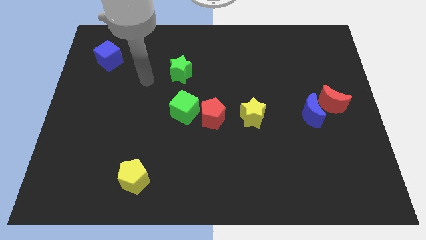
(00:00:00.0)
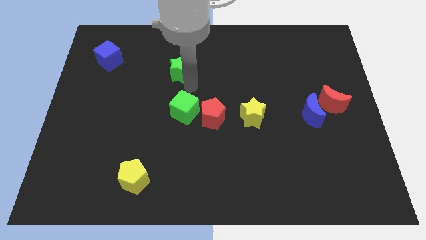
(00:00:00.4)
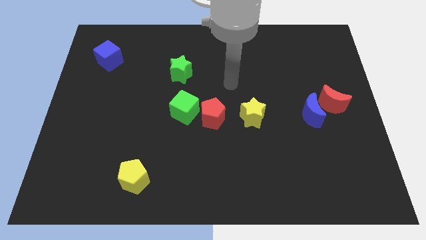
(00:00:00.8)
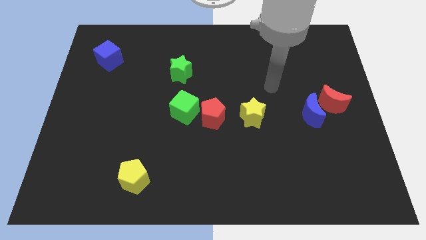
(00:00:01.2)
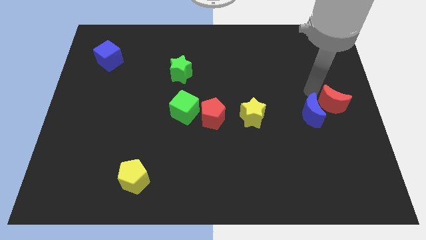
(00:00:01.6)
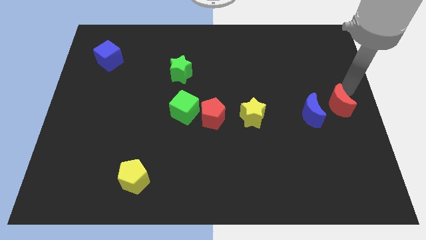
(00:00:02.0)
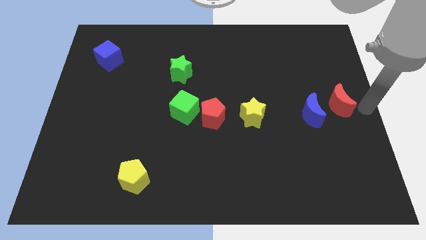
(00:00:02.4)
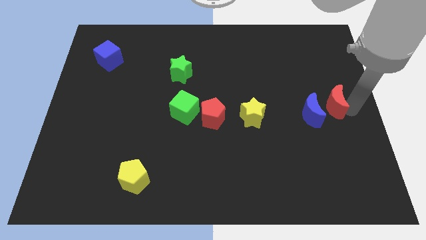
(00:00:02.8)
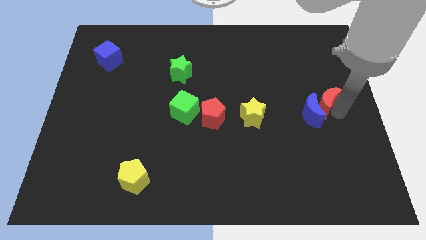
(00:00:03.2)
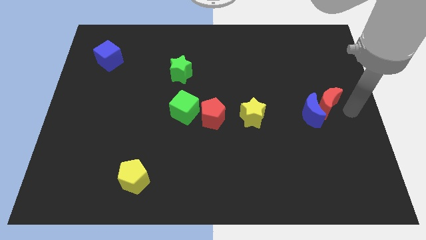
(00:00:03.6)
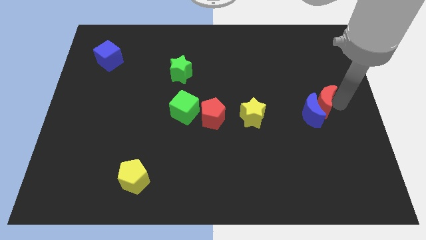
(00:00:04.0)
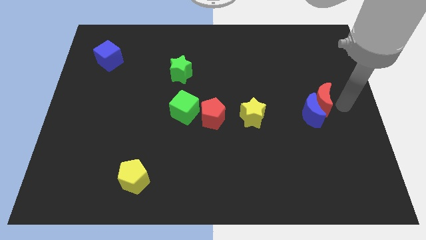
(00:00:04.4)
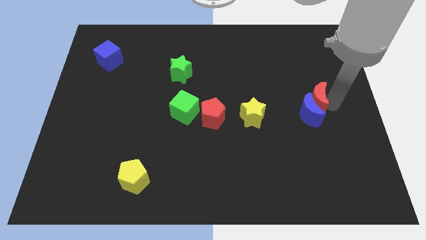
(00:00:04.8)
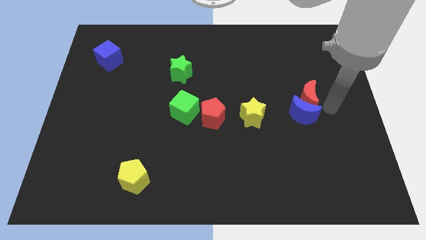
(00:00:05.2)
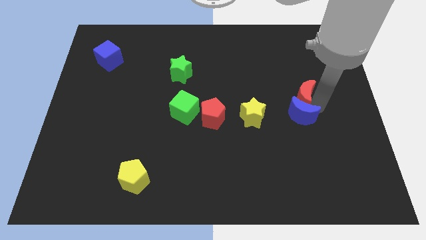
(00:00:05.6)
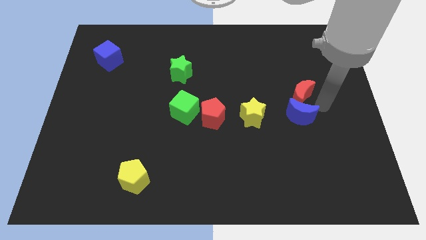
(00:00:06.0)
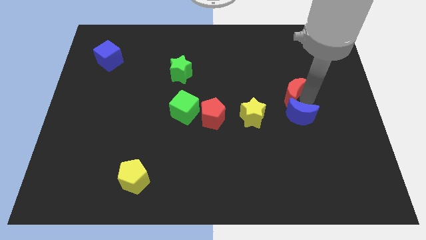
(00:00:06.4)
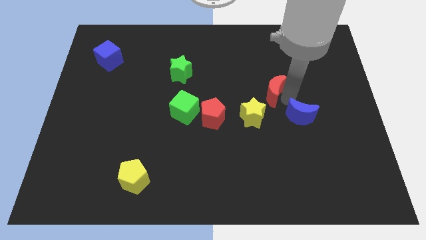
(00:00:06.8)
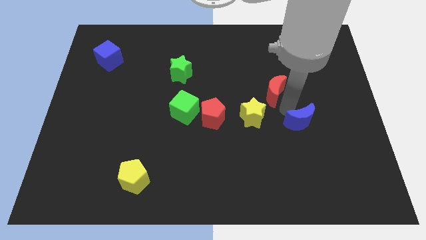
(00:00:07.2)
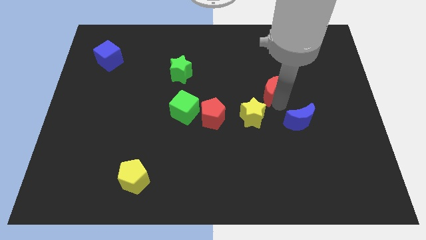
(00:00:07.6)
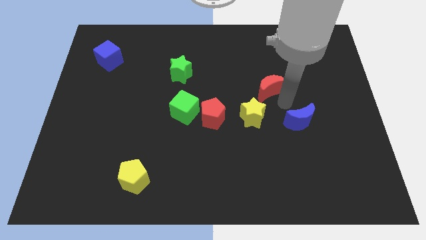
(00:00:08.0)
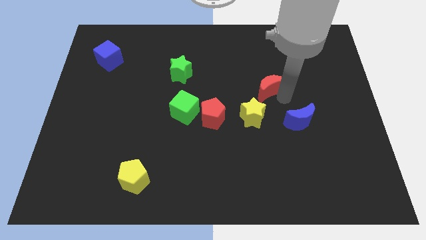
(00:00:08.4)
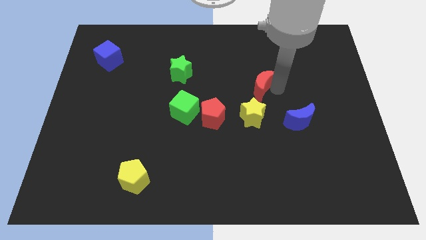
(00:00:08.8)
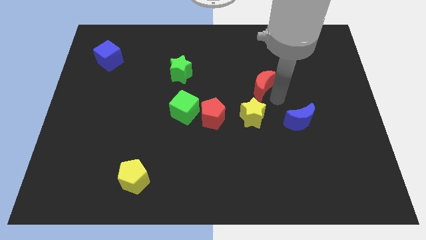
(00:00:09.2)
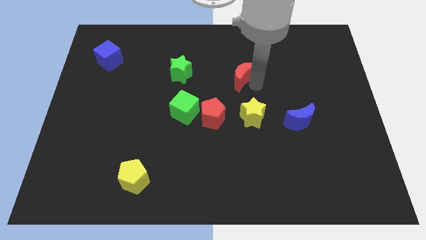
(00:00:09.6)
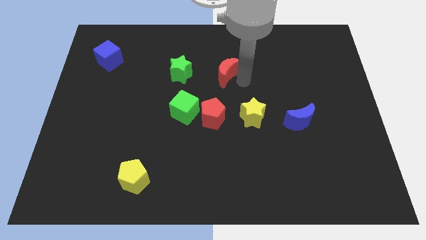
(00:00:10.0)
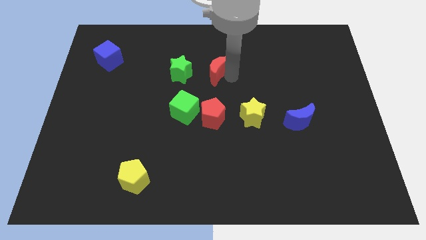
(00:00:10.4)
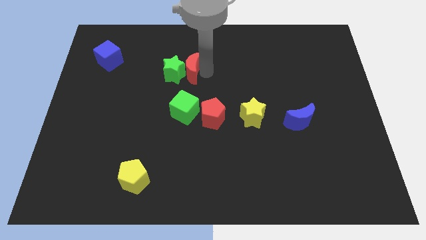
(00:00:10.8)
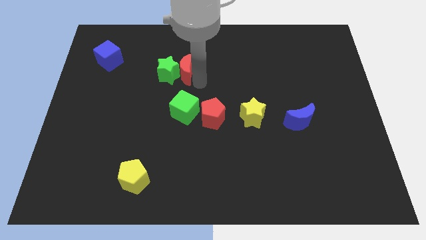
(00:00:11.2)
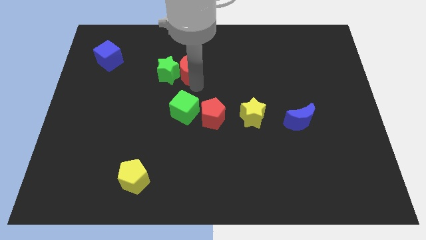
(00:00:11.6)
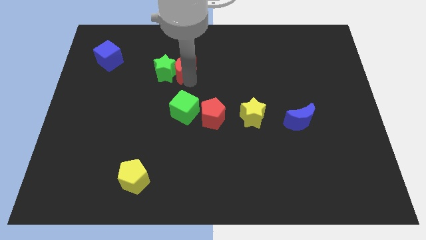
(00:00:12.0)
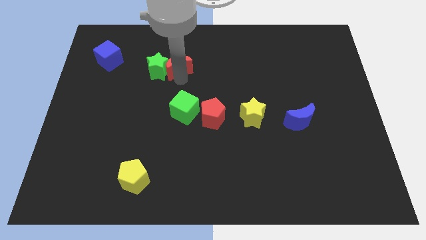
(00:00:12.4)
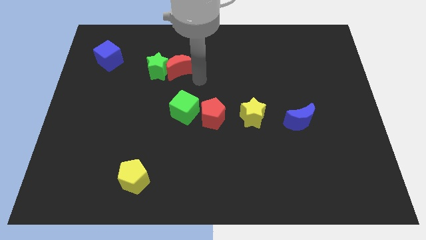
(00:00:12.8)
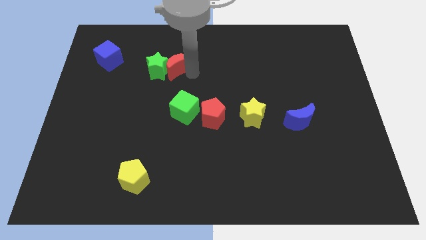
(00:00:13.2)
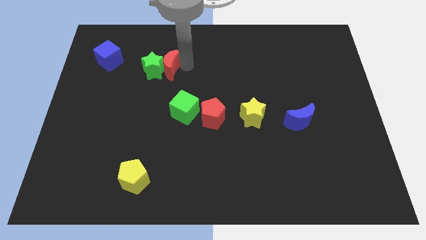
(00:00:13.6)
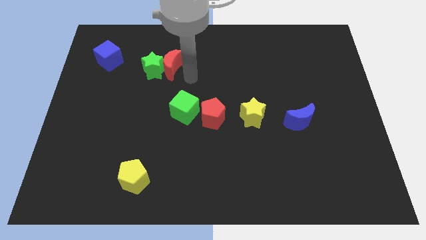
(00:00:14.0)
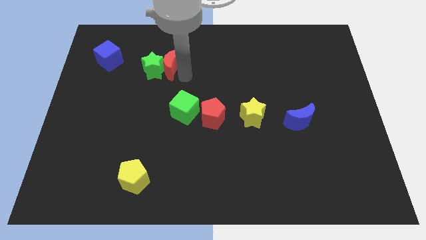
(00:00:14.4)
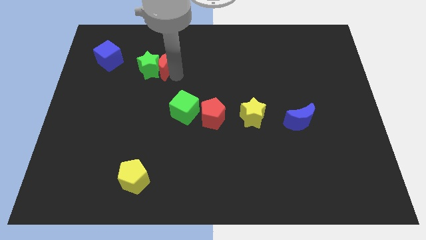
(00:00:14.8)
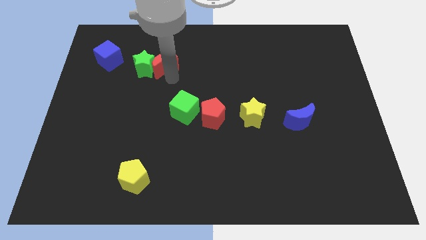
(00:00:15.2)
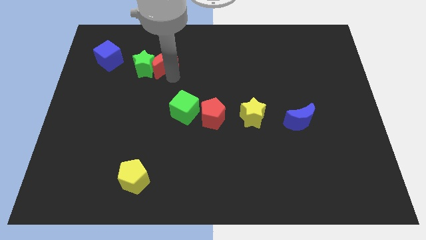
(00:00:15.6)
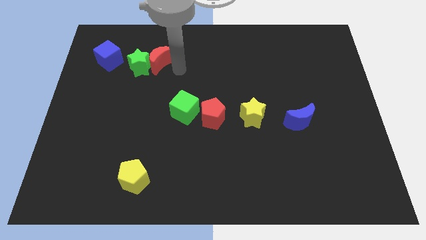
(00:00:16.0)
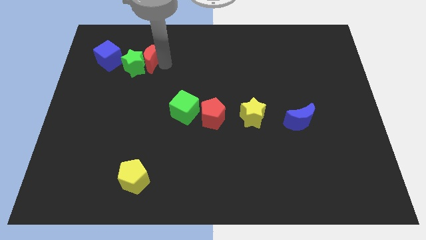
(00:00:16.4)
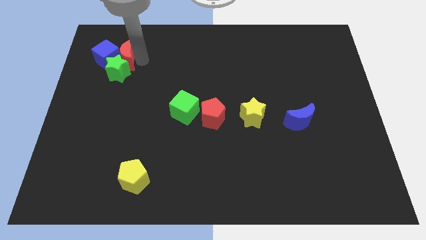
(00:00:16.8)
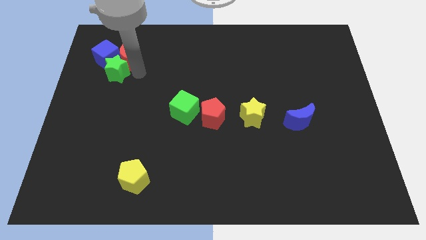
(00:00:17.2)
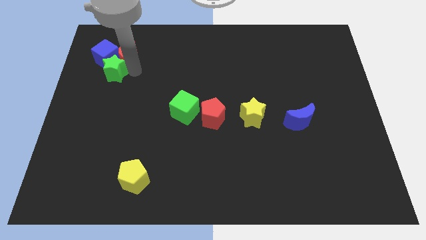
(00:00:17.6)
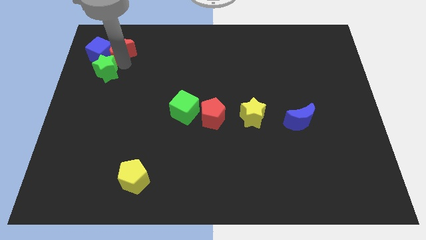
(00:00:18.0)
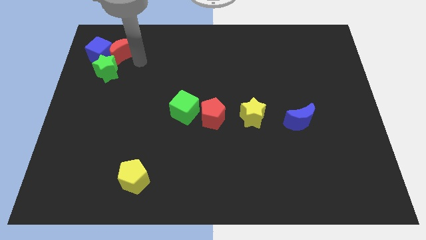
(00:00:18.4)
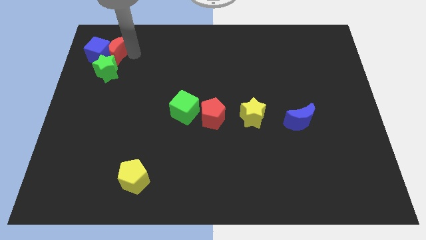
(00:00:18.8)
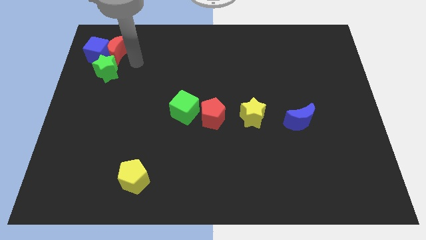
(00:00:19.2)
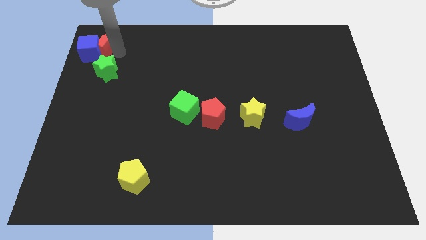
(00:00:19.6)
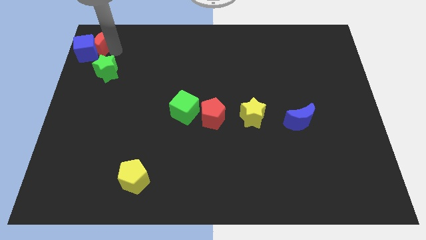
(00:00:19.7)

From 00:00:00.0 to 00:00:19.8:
push the red moon to the top left corner

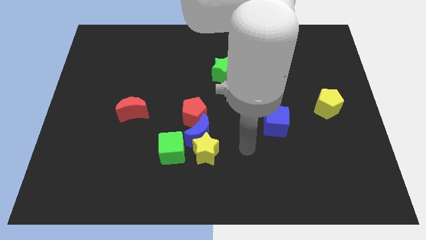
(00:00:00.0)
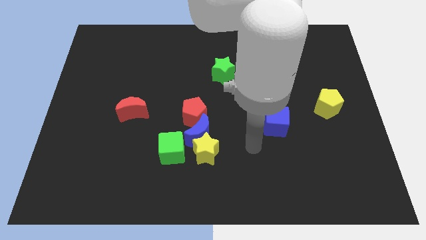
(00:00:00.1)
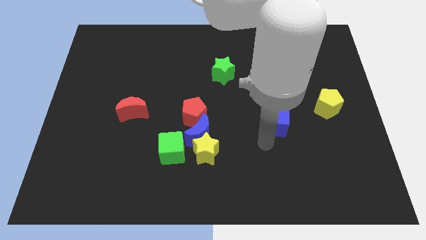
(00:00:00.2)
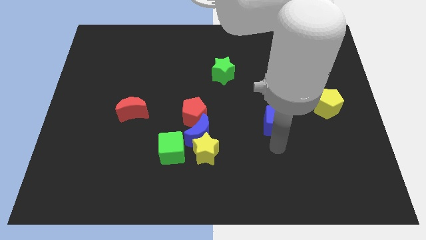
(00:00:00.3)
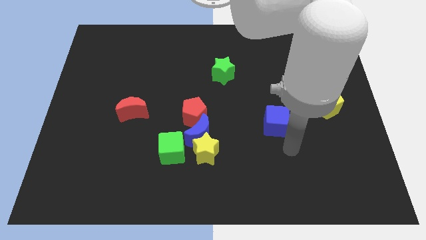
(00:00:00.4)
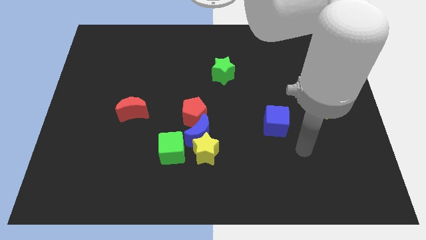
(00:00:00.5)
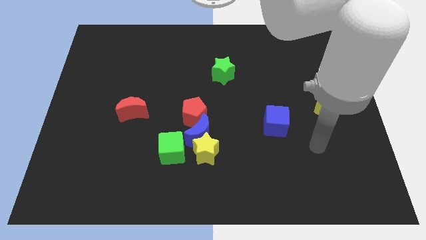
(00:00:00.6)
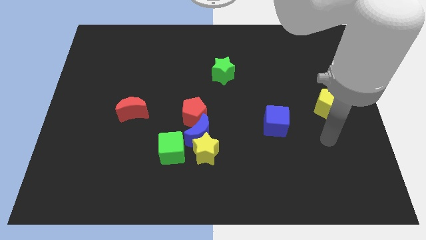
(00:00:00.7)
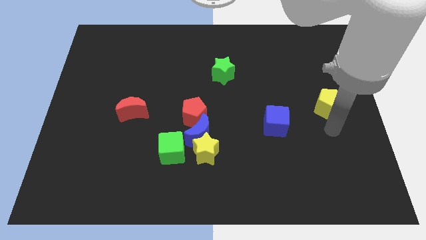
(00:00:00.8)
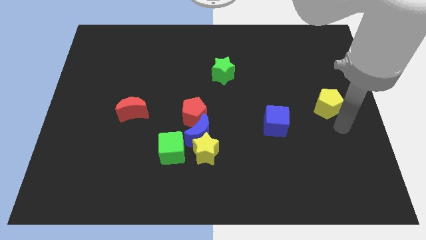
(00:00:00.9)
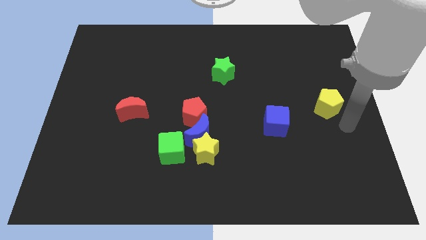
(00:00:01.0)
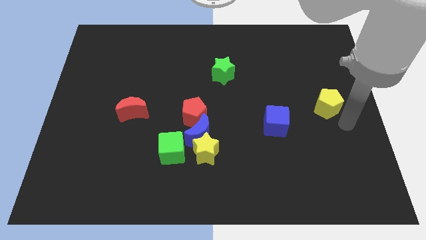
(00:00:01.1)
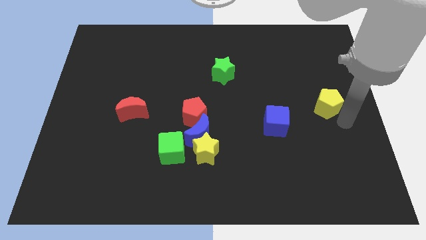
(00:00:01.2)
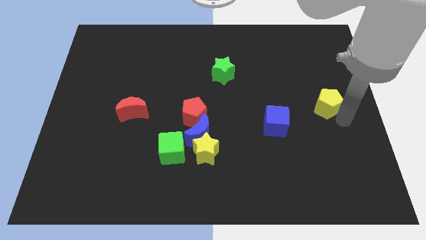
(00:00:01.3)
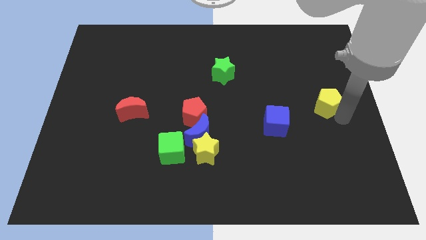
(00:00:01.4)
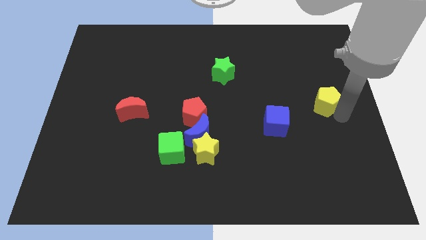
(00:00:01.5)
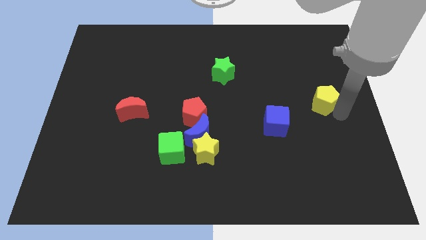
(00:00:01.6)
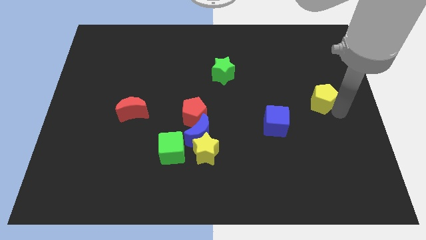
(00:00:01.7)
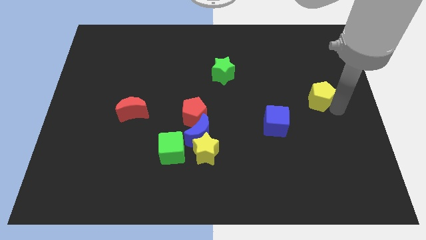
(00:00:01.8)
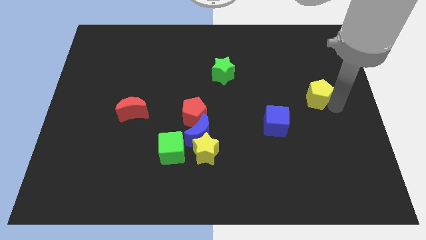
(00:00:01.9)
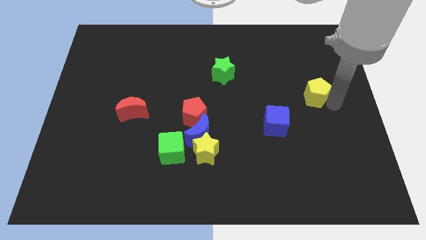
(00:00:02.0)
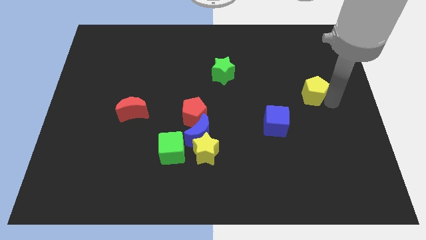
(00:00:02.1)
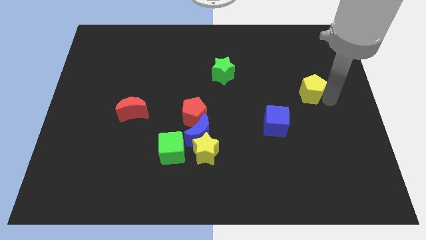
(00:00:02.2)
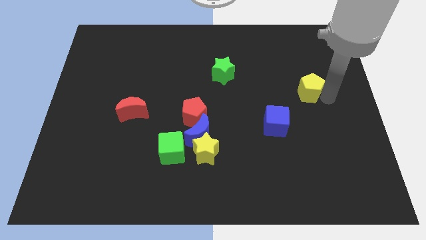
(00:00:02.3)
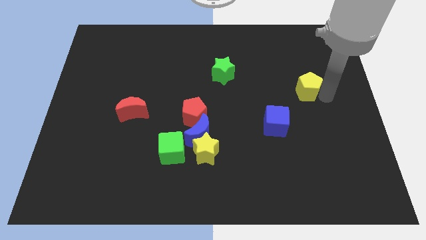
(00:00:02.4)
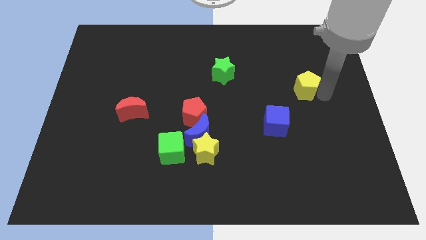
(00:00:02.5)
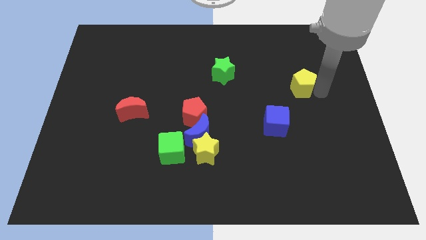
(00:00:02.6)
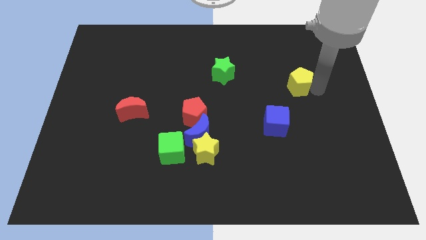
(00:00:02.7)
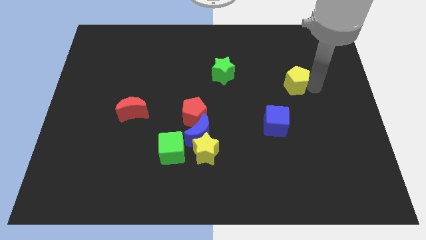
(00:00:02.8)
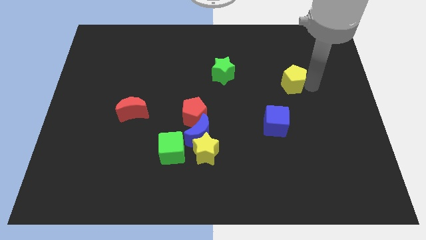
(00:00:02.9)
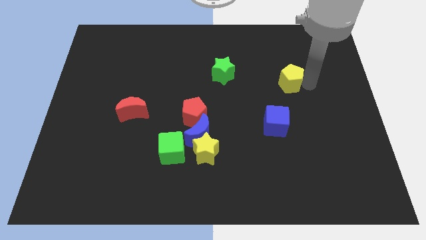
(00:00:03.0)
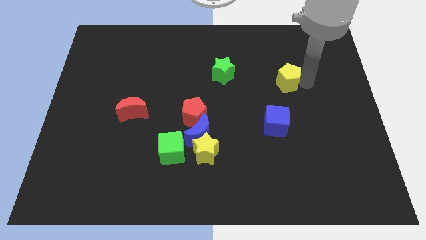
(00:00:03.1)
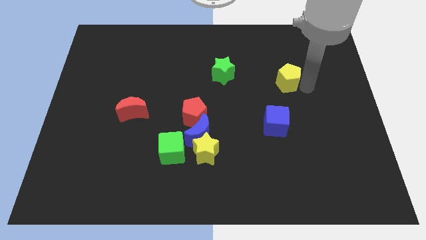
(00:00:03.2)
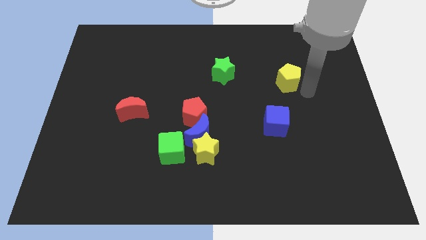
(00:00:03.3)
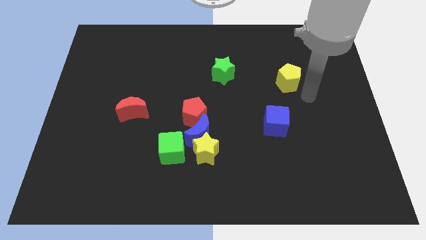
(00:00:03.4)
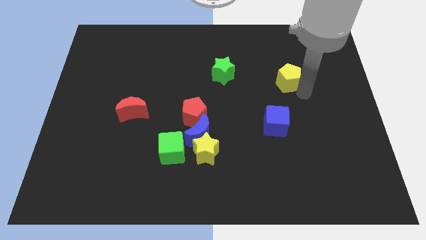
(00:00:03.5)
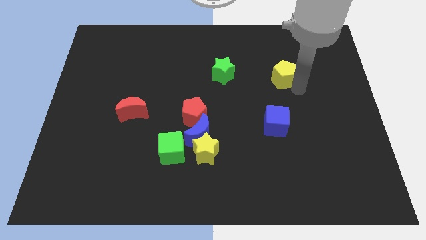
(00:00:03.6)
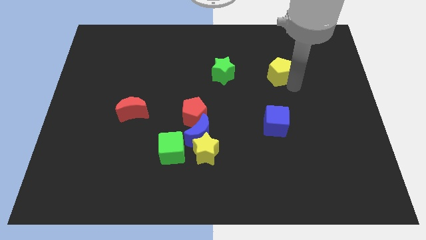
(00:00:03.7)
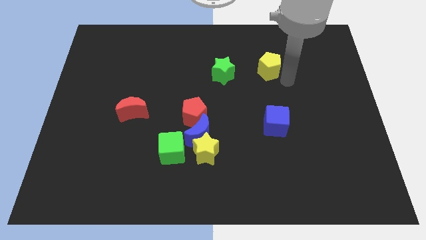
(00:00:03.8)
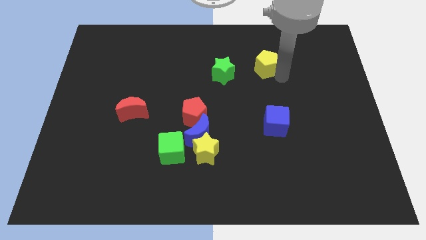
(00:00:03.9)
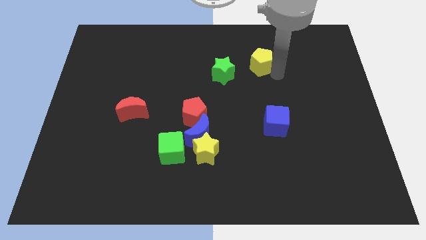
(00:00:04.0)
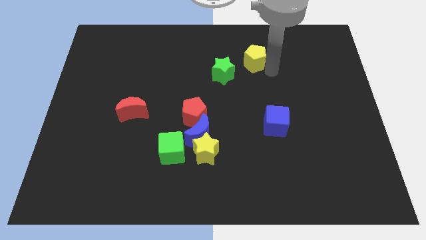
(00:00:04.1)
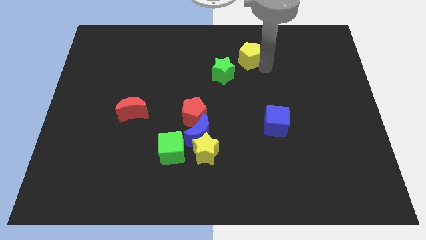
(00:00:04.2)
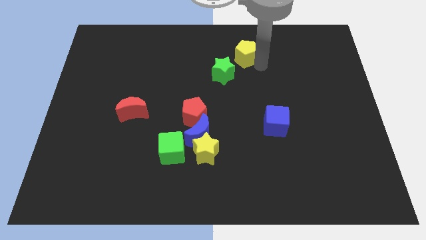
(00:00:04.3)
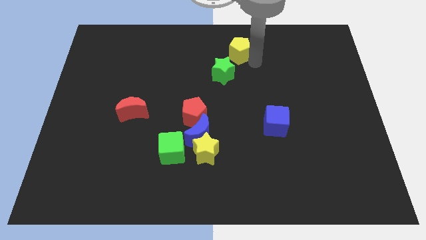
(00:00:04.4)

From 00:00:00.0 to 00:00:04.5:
move the yellow pentagon to the top
